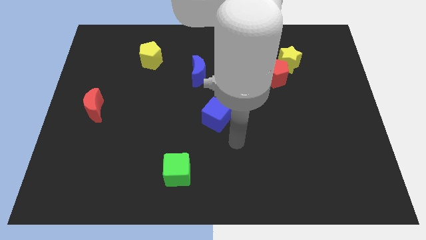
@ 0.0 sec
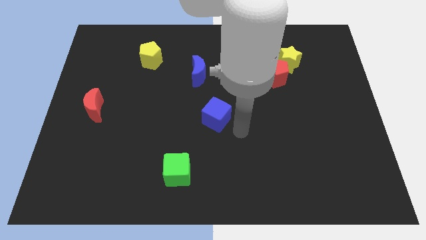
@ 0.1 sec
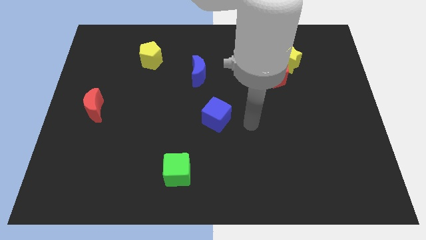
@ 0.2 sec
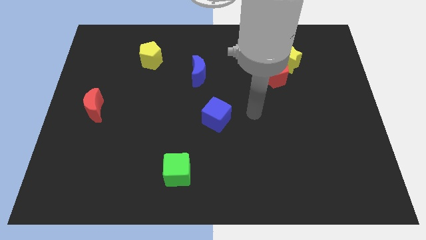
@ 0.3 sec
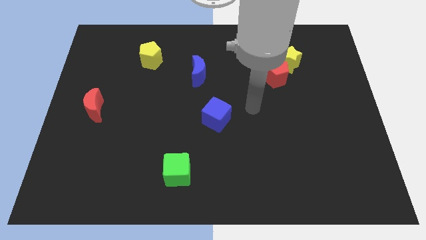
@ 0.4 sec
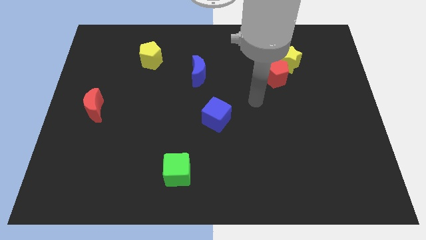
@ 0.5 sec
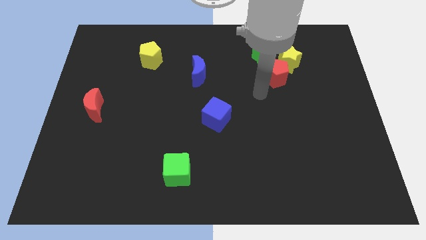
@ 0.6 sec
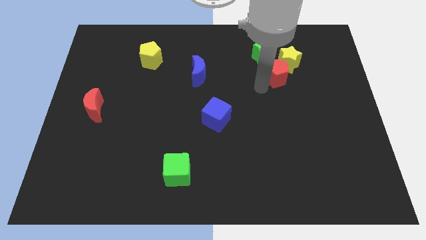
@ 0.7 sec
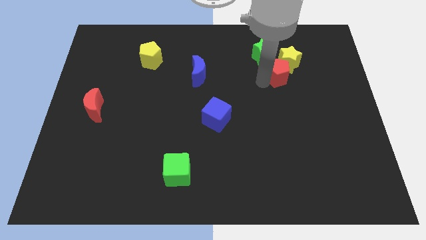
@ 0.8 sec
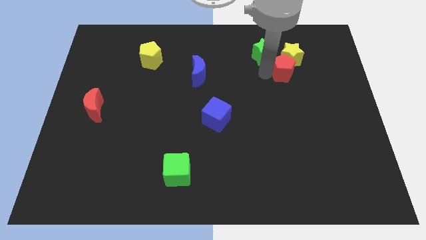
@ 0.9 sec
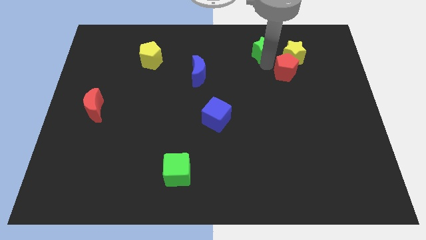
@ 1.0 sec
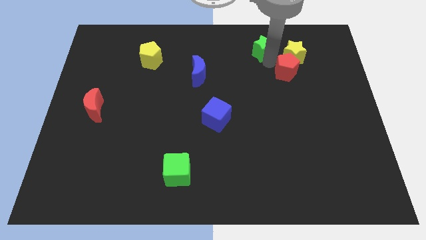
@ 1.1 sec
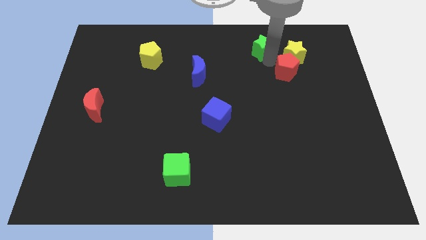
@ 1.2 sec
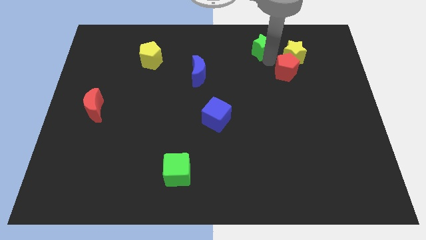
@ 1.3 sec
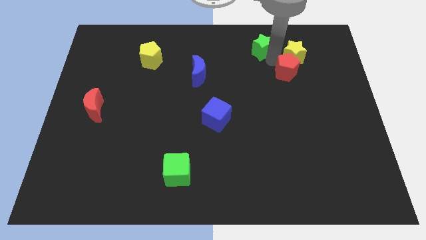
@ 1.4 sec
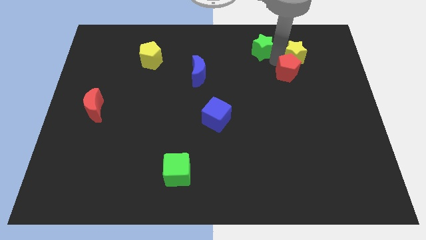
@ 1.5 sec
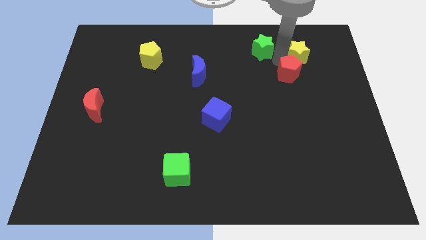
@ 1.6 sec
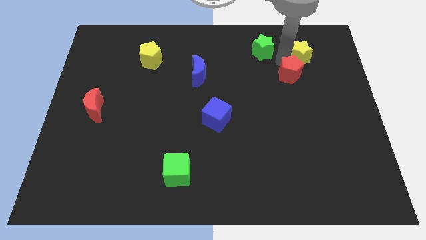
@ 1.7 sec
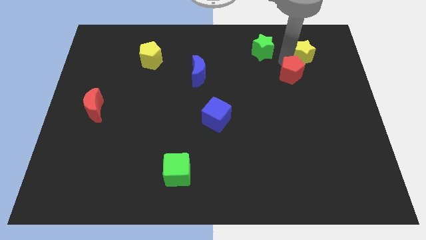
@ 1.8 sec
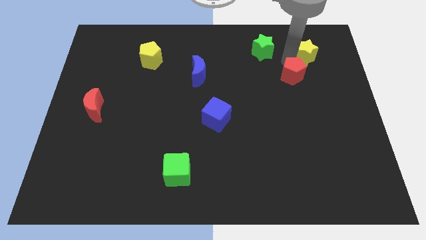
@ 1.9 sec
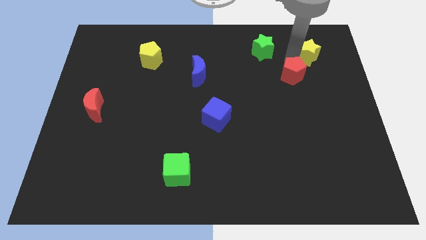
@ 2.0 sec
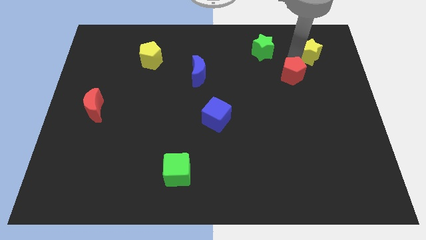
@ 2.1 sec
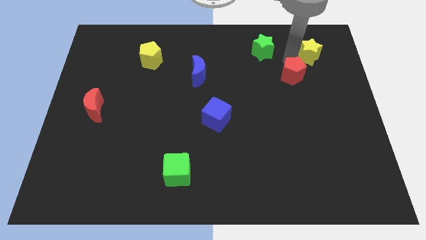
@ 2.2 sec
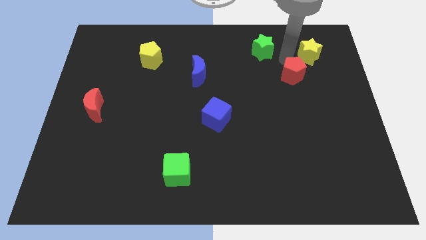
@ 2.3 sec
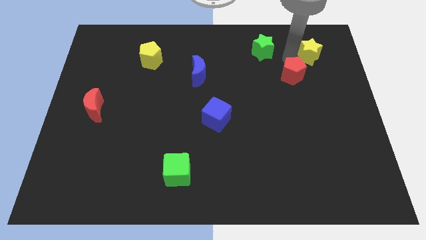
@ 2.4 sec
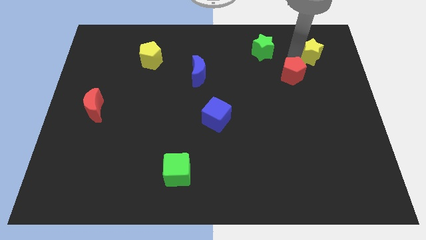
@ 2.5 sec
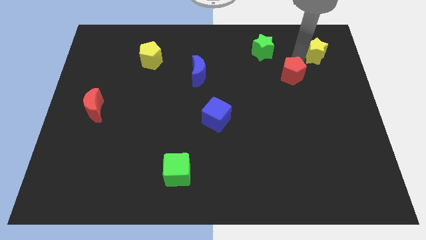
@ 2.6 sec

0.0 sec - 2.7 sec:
pull the yellow star apart from the red pentagon and green star

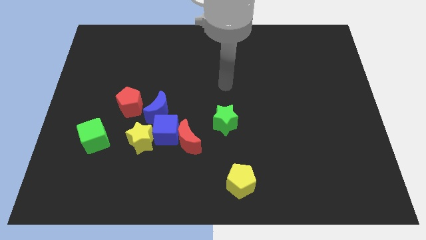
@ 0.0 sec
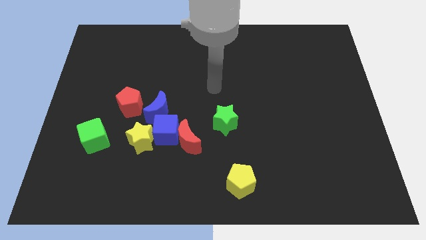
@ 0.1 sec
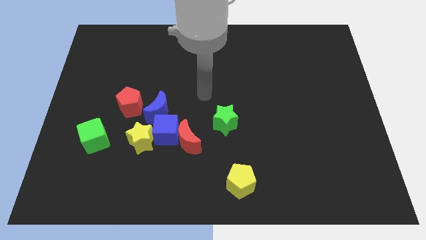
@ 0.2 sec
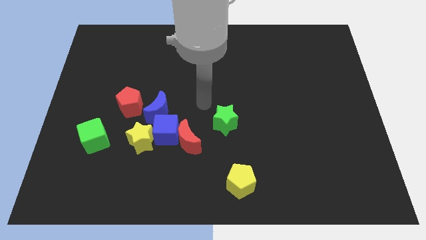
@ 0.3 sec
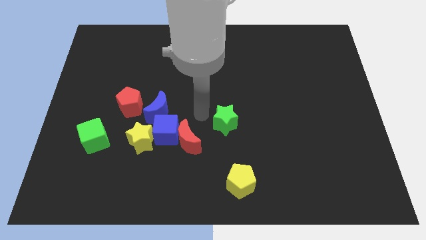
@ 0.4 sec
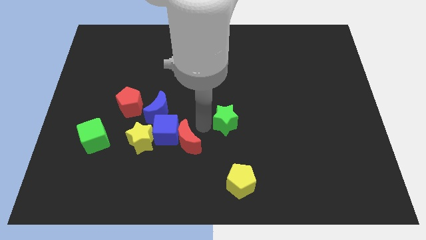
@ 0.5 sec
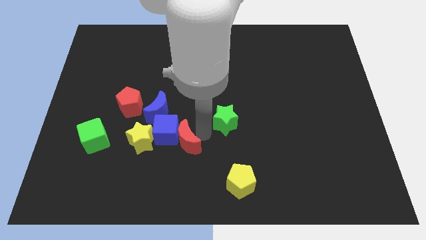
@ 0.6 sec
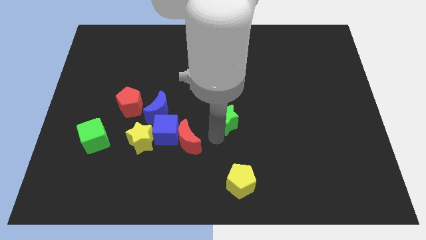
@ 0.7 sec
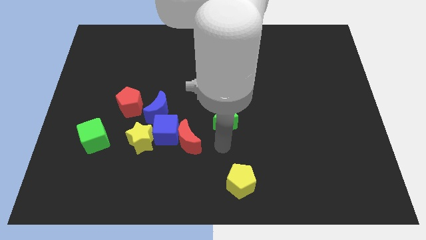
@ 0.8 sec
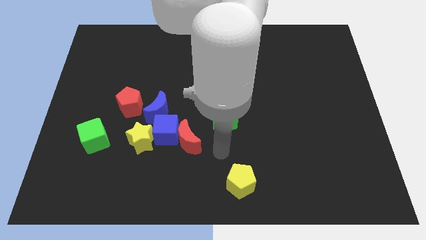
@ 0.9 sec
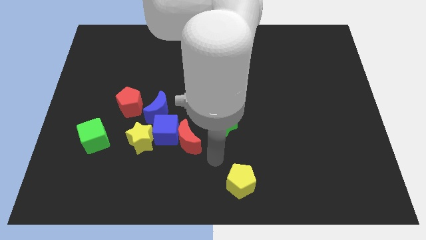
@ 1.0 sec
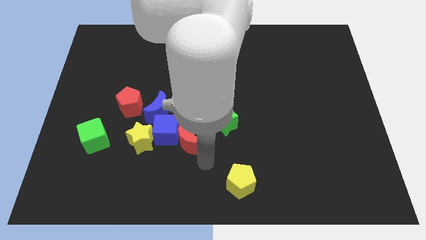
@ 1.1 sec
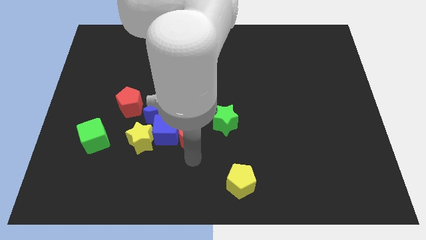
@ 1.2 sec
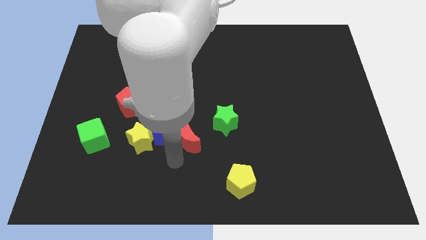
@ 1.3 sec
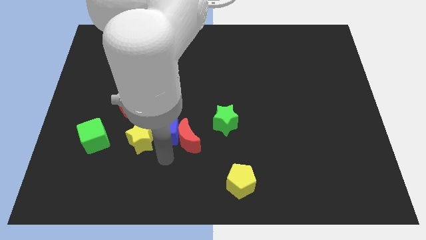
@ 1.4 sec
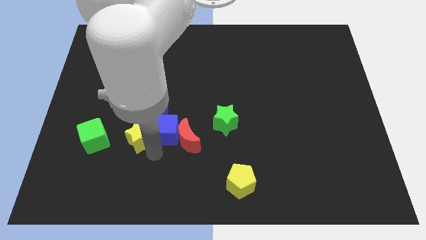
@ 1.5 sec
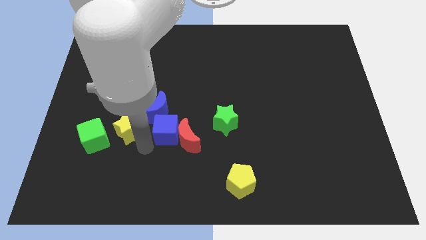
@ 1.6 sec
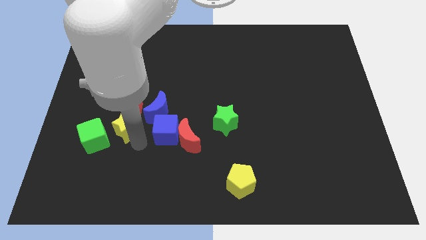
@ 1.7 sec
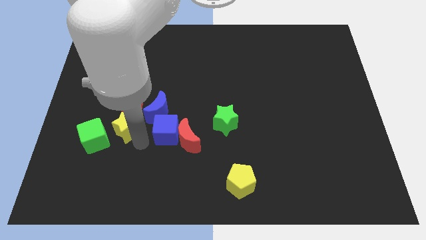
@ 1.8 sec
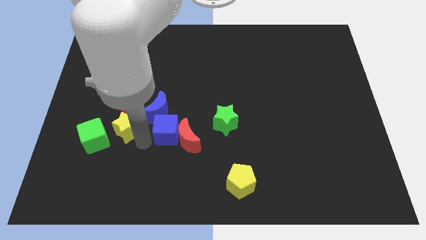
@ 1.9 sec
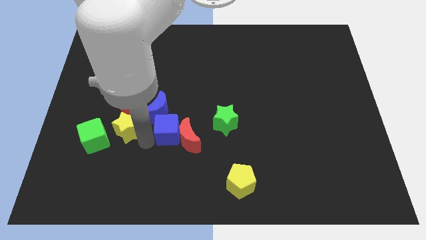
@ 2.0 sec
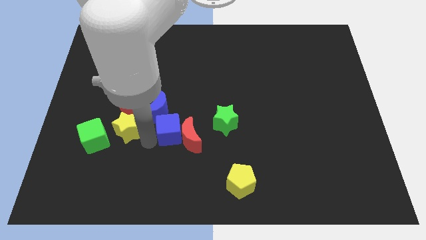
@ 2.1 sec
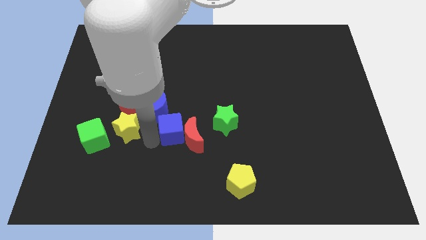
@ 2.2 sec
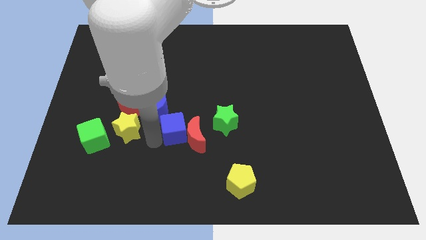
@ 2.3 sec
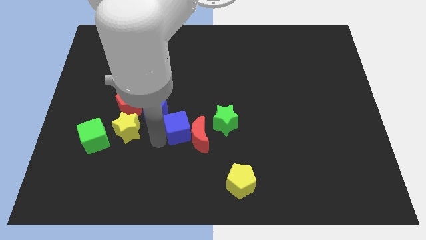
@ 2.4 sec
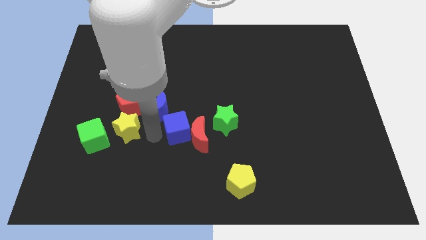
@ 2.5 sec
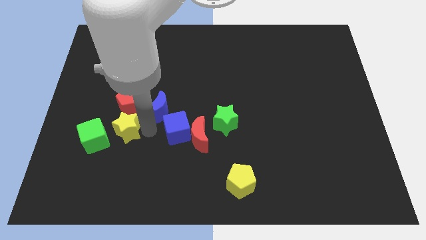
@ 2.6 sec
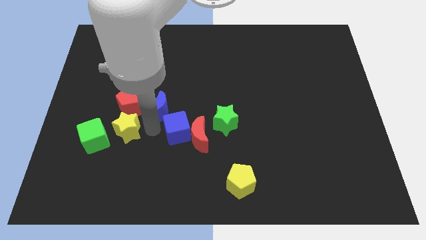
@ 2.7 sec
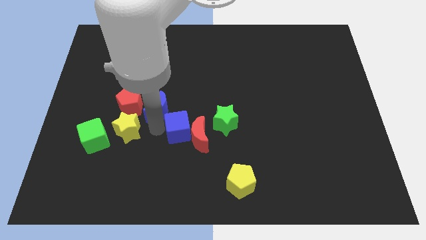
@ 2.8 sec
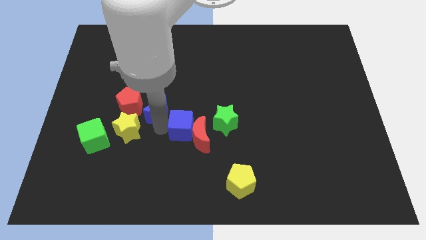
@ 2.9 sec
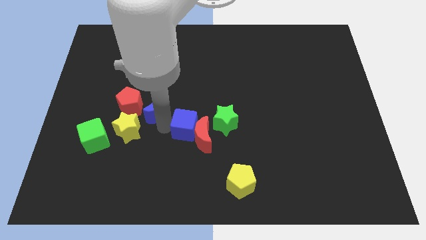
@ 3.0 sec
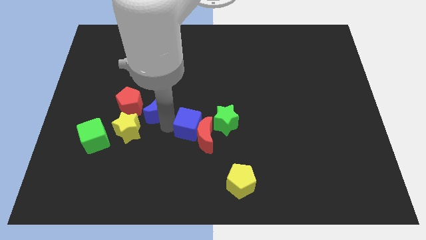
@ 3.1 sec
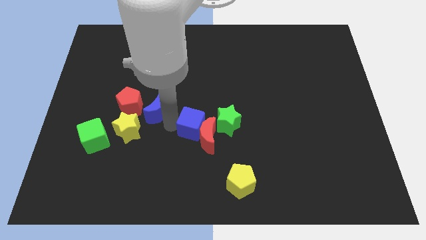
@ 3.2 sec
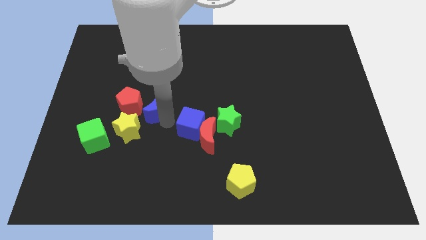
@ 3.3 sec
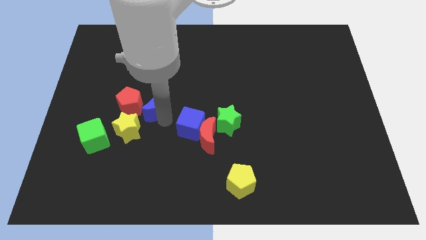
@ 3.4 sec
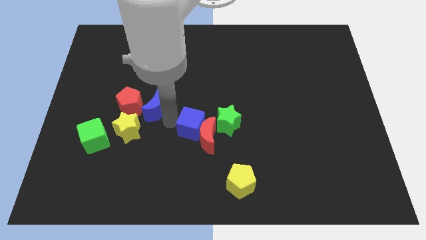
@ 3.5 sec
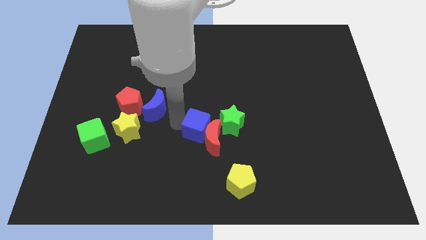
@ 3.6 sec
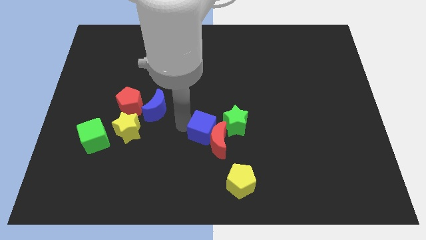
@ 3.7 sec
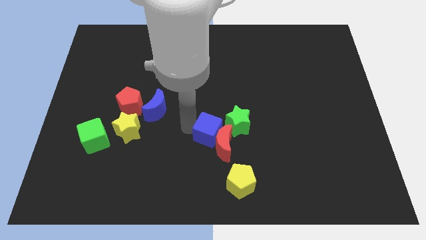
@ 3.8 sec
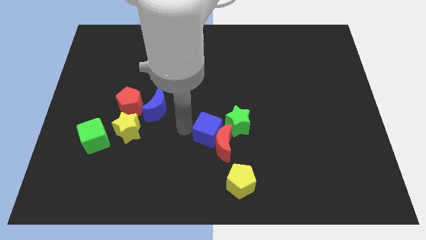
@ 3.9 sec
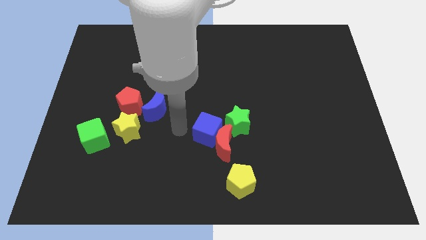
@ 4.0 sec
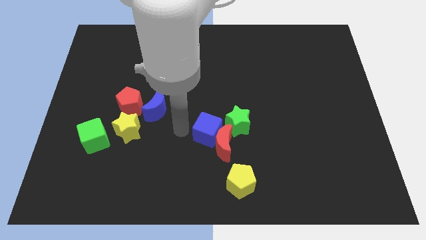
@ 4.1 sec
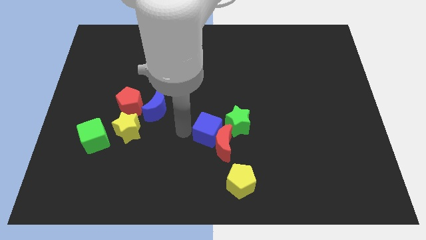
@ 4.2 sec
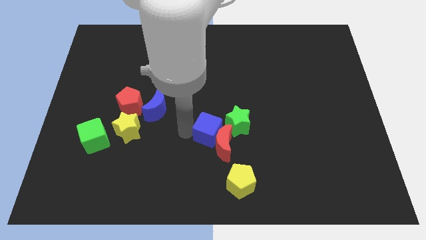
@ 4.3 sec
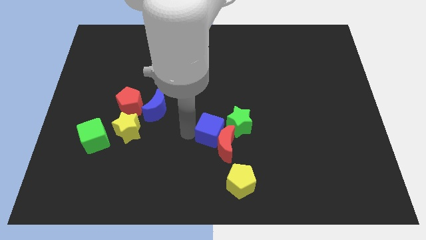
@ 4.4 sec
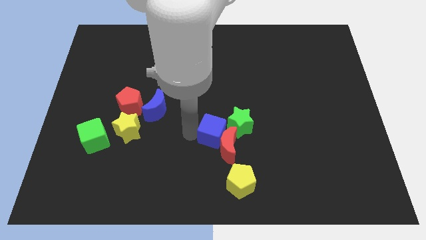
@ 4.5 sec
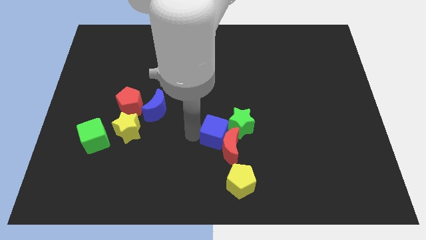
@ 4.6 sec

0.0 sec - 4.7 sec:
pull the blue cube apart from the red moon, yellow star, and blue moon

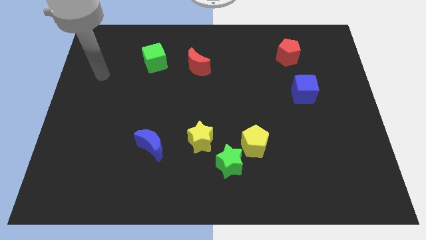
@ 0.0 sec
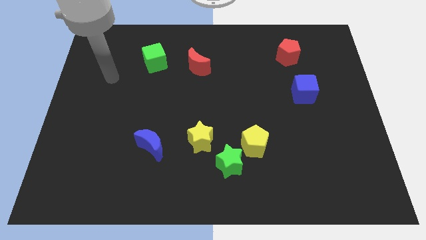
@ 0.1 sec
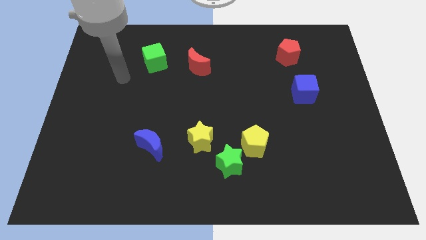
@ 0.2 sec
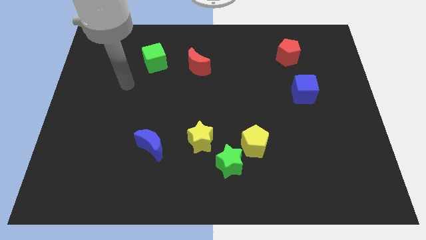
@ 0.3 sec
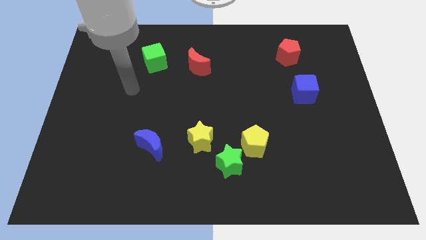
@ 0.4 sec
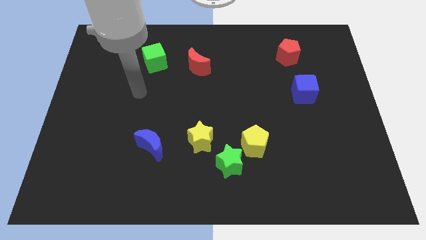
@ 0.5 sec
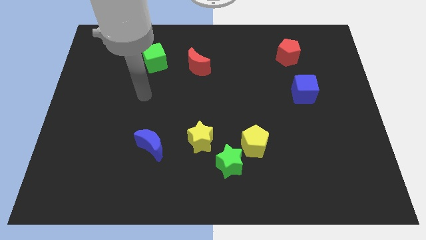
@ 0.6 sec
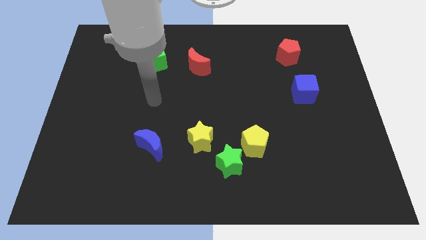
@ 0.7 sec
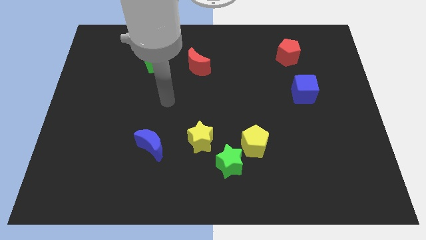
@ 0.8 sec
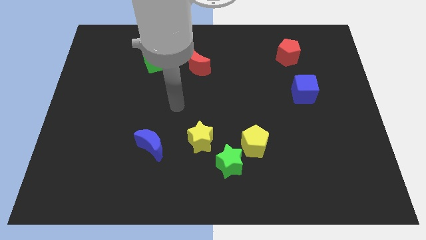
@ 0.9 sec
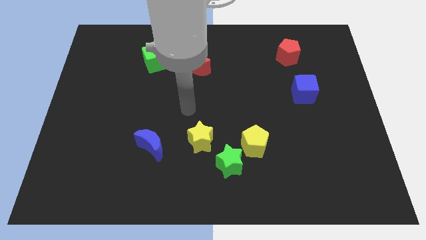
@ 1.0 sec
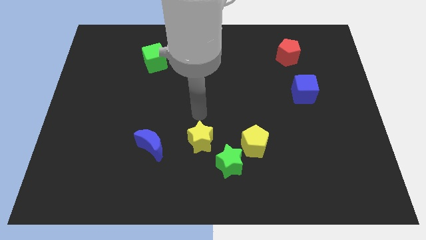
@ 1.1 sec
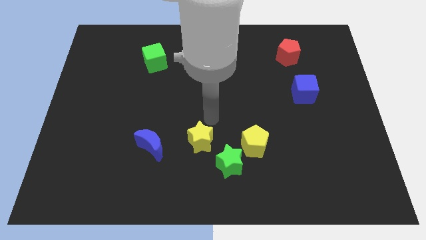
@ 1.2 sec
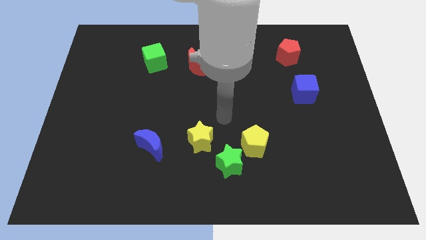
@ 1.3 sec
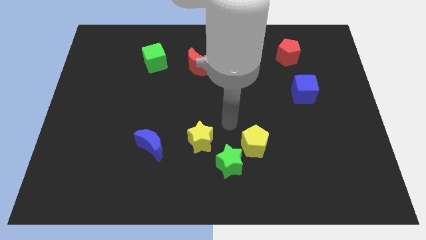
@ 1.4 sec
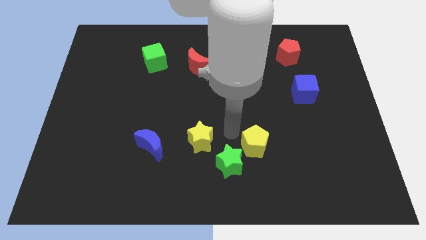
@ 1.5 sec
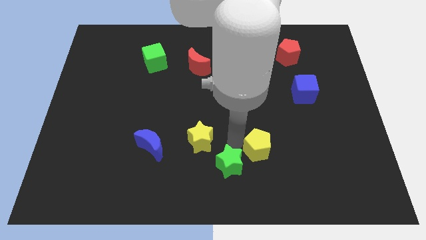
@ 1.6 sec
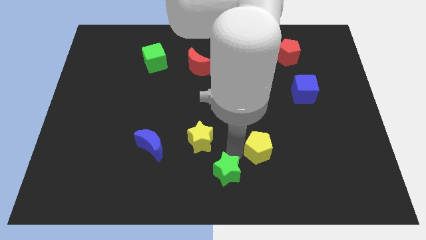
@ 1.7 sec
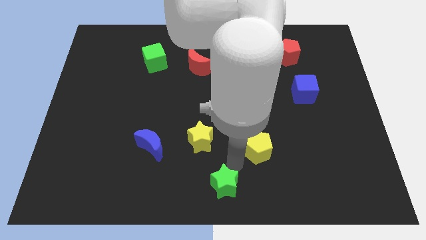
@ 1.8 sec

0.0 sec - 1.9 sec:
move the yellow pentagon away from the green star
